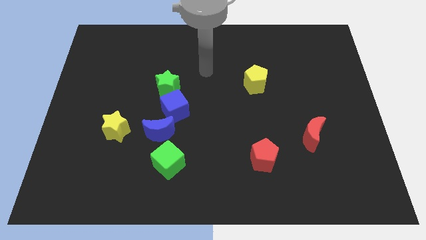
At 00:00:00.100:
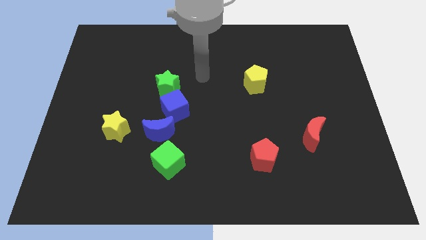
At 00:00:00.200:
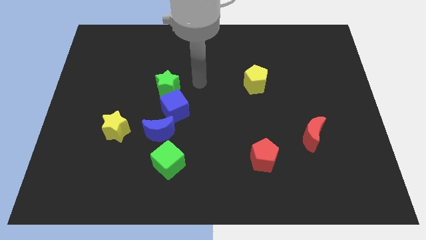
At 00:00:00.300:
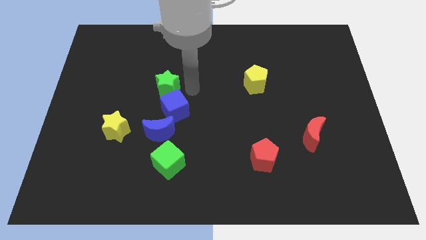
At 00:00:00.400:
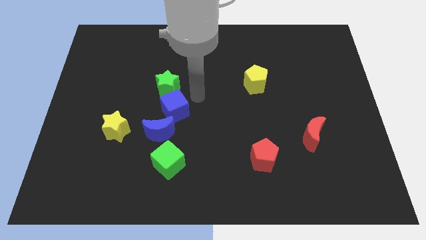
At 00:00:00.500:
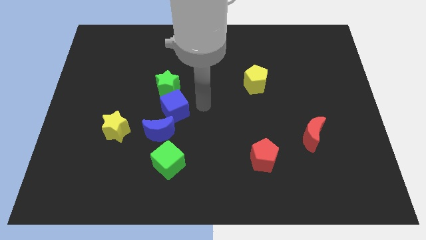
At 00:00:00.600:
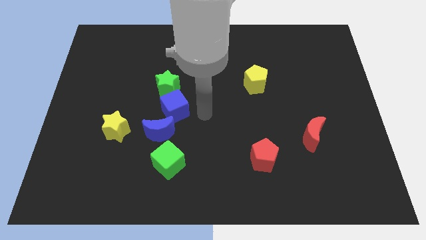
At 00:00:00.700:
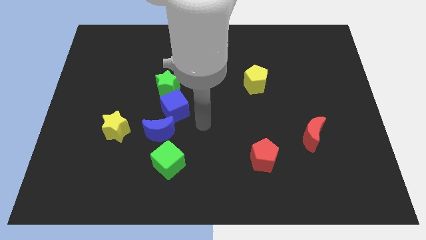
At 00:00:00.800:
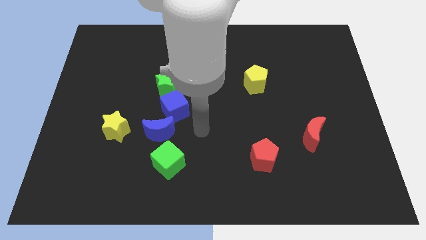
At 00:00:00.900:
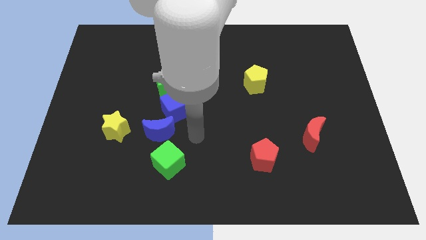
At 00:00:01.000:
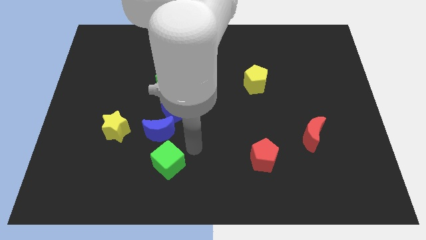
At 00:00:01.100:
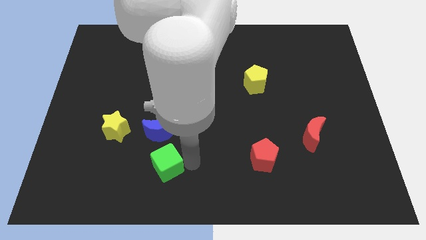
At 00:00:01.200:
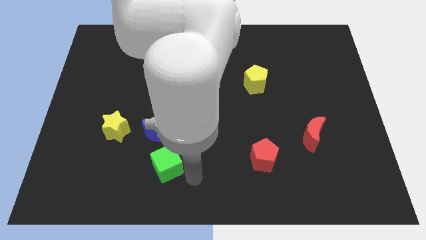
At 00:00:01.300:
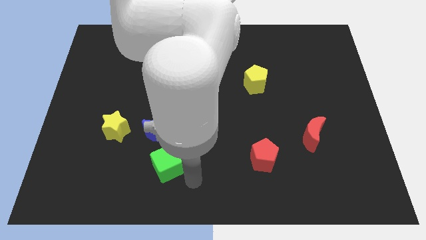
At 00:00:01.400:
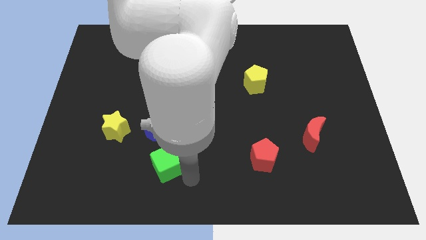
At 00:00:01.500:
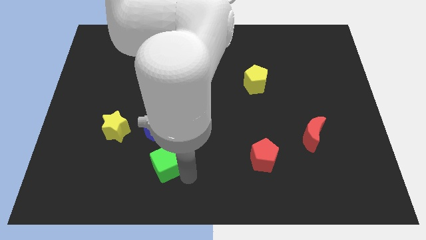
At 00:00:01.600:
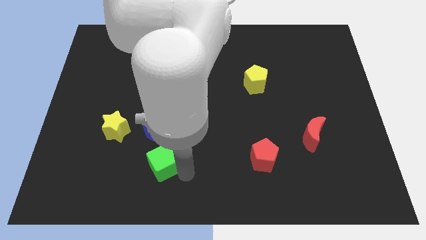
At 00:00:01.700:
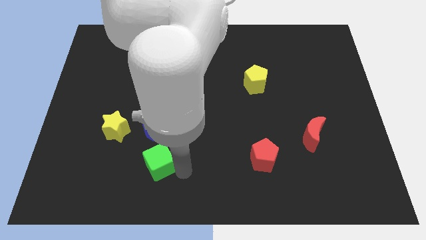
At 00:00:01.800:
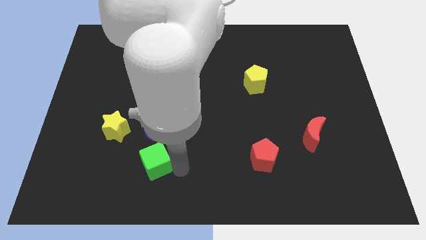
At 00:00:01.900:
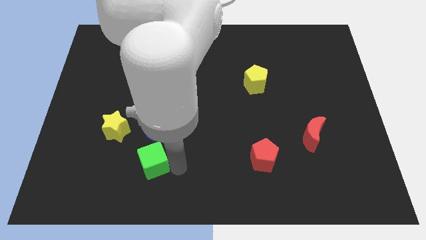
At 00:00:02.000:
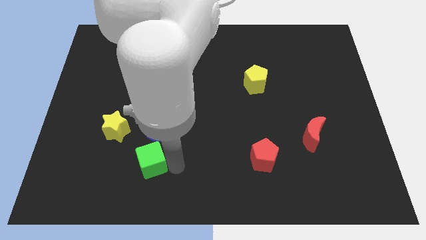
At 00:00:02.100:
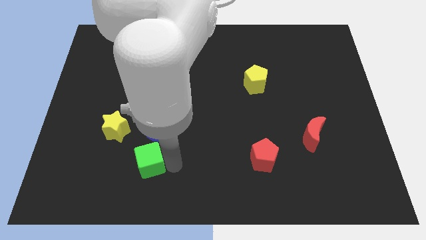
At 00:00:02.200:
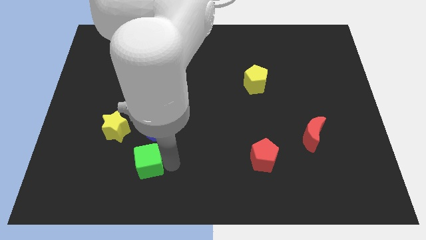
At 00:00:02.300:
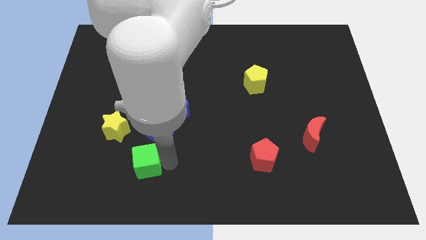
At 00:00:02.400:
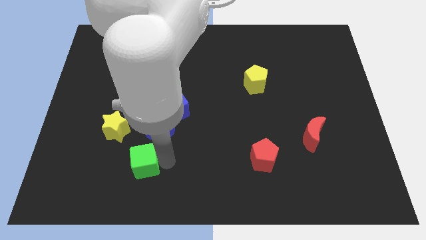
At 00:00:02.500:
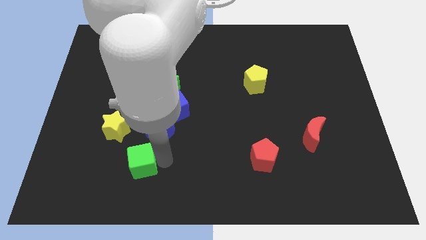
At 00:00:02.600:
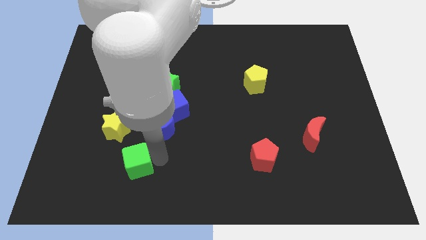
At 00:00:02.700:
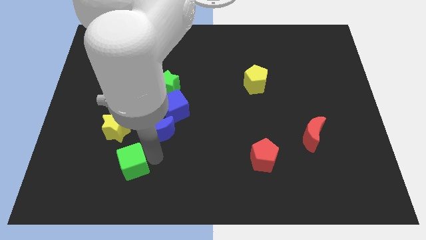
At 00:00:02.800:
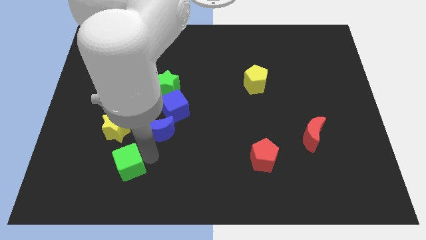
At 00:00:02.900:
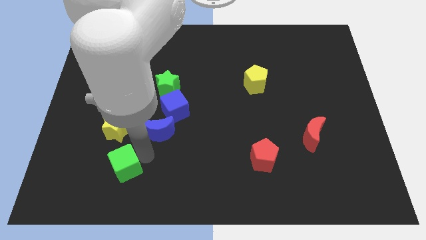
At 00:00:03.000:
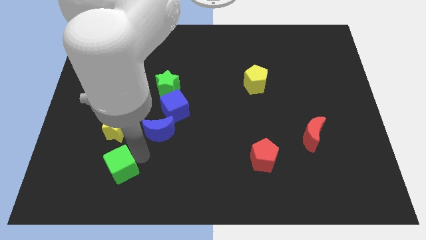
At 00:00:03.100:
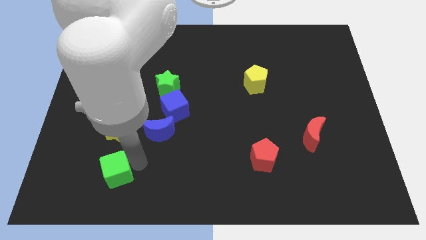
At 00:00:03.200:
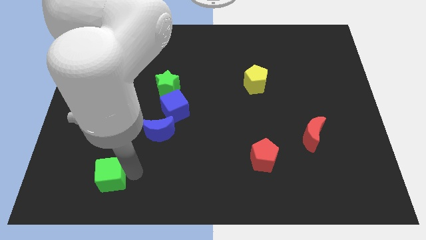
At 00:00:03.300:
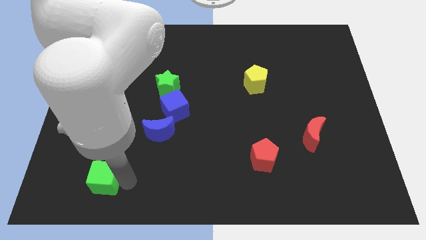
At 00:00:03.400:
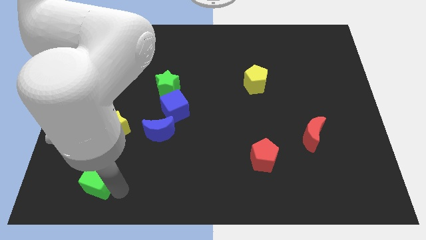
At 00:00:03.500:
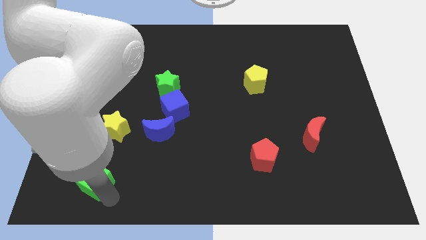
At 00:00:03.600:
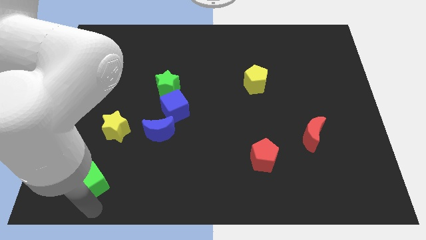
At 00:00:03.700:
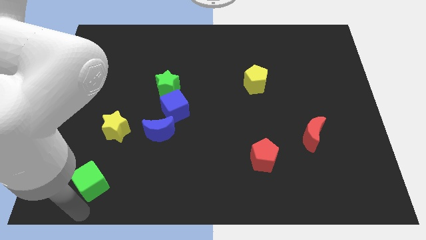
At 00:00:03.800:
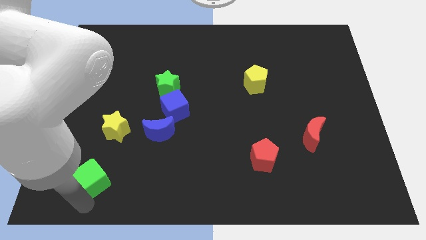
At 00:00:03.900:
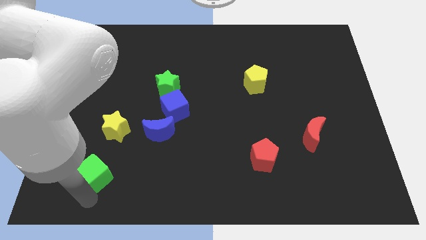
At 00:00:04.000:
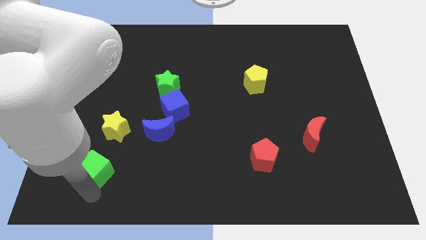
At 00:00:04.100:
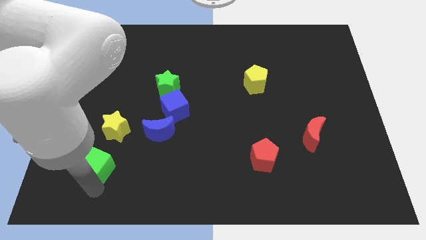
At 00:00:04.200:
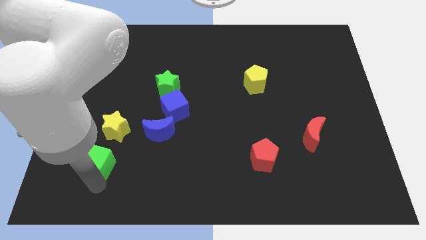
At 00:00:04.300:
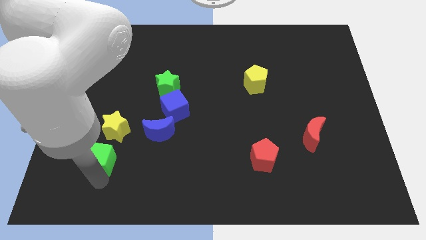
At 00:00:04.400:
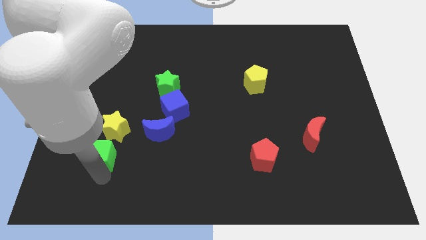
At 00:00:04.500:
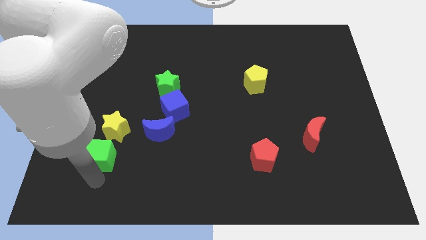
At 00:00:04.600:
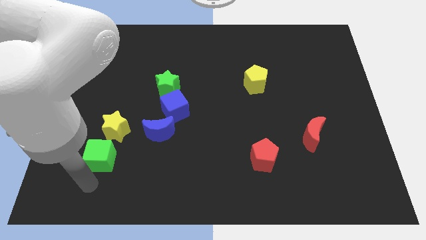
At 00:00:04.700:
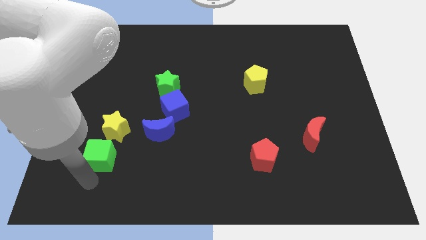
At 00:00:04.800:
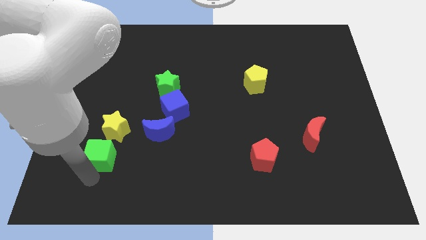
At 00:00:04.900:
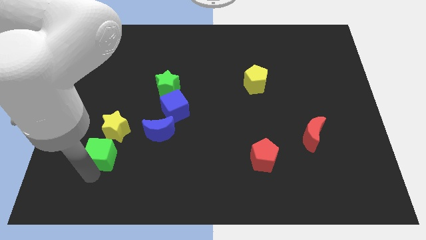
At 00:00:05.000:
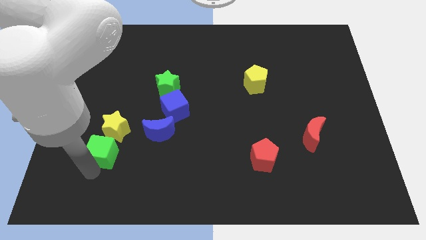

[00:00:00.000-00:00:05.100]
move the green cube towards the yellow star

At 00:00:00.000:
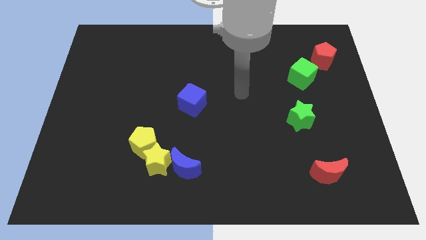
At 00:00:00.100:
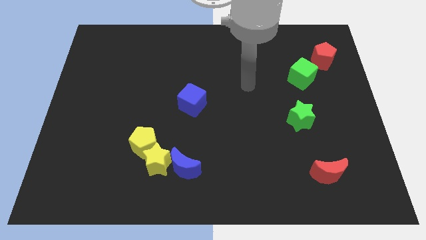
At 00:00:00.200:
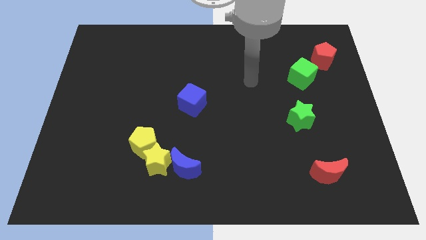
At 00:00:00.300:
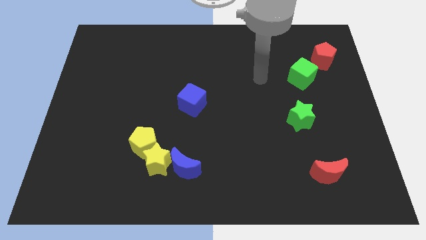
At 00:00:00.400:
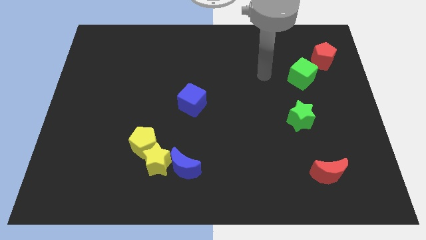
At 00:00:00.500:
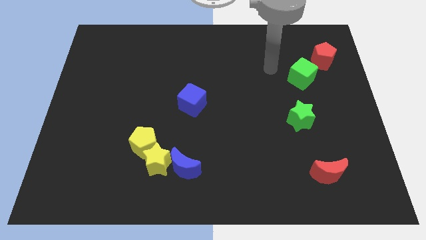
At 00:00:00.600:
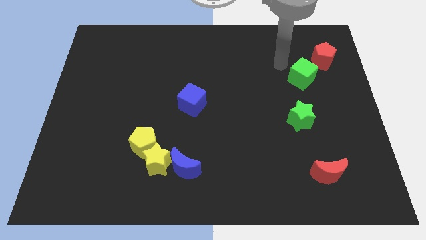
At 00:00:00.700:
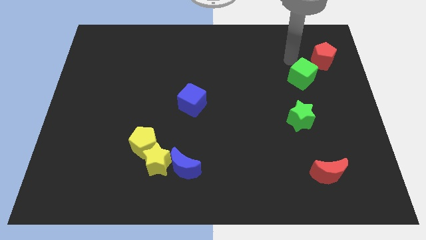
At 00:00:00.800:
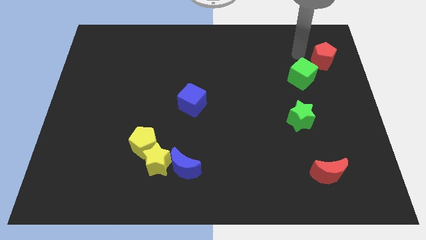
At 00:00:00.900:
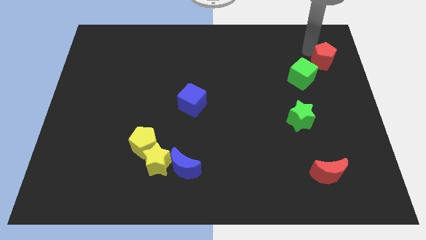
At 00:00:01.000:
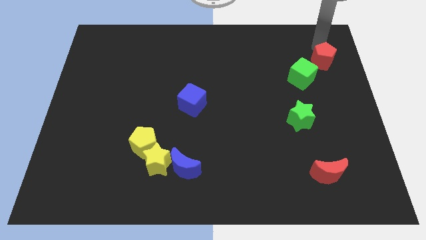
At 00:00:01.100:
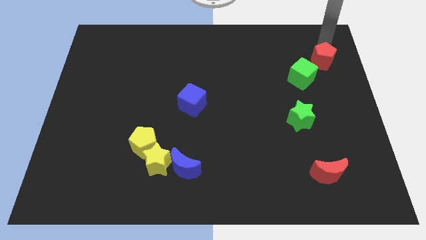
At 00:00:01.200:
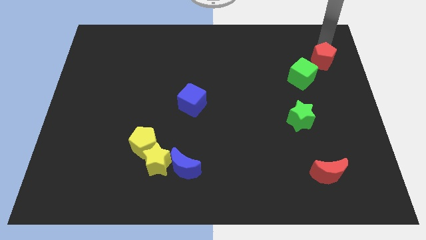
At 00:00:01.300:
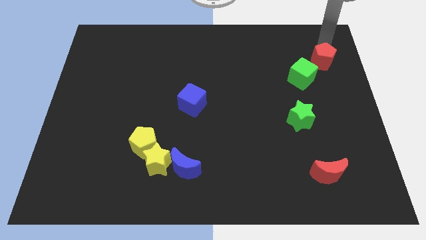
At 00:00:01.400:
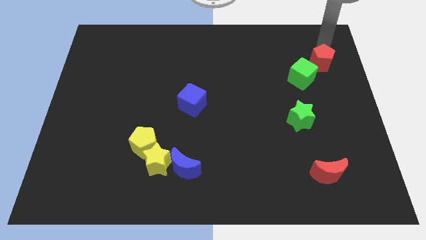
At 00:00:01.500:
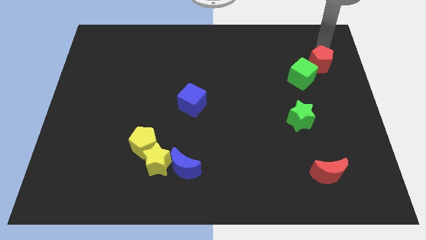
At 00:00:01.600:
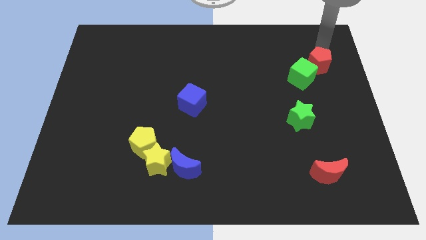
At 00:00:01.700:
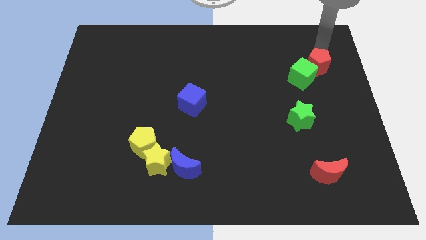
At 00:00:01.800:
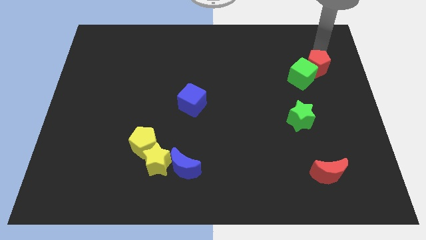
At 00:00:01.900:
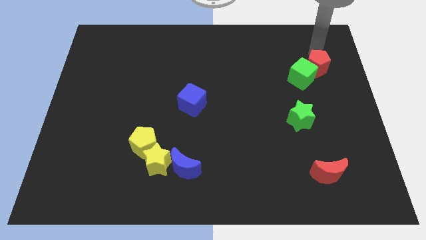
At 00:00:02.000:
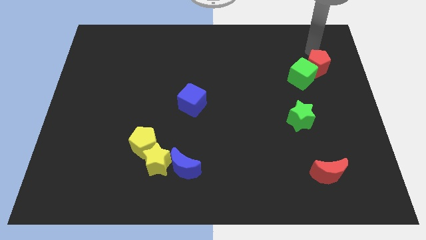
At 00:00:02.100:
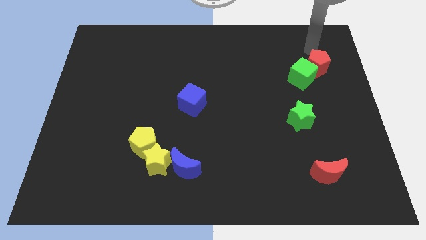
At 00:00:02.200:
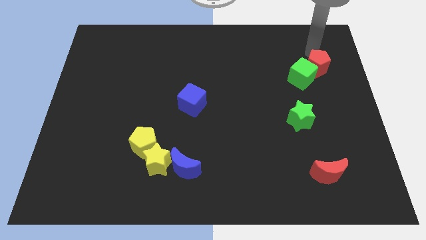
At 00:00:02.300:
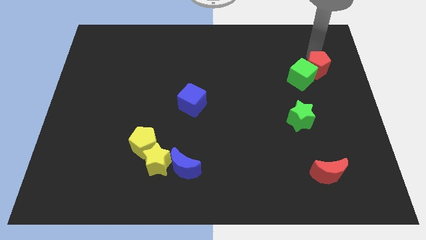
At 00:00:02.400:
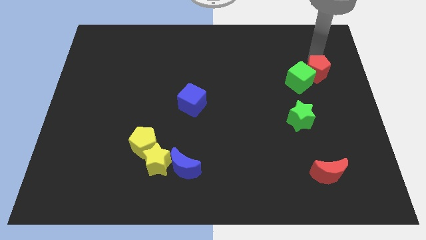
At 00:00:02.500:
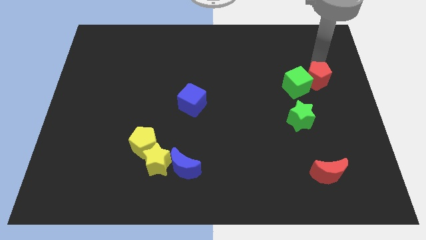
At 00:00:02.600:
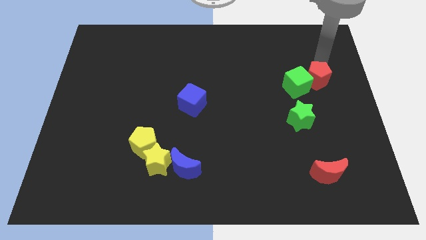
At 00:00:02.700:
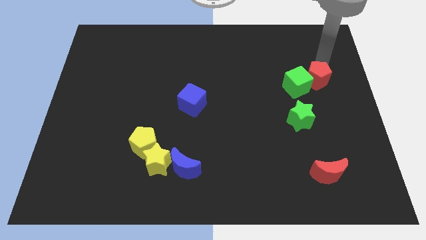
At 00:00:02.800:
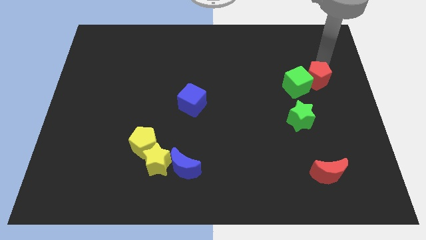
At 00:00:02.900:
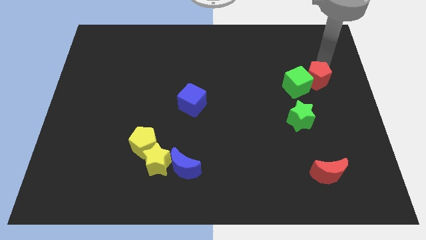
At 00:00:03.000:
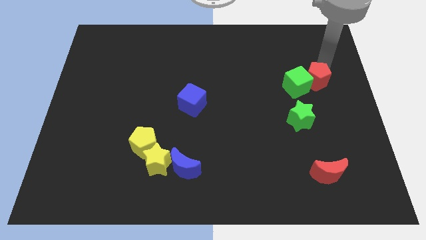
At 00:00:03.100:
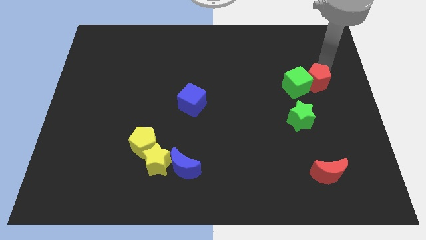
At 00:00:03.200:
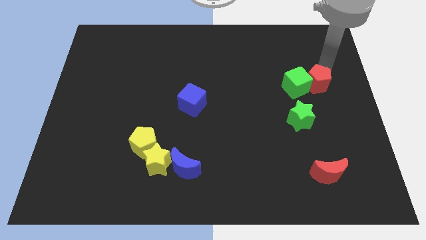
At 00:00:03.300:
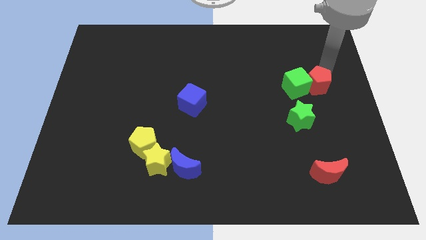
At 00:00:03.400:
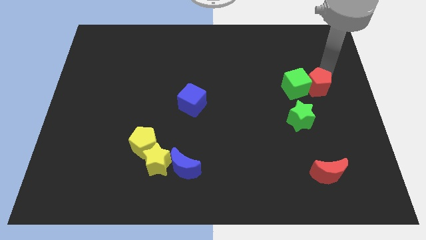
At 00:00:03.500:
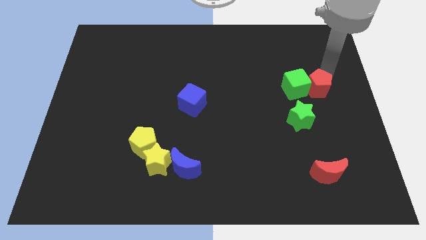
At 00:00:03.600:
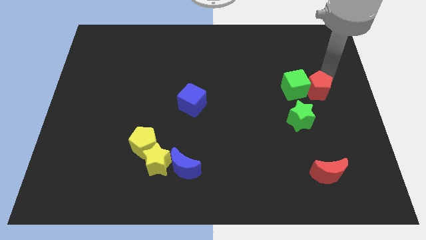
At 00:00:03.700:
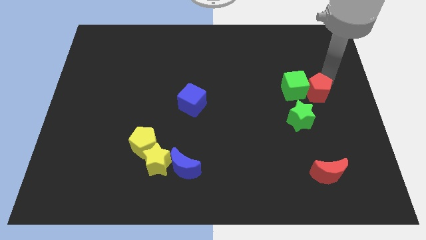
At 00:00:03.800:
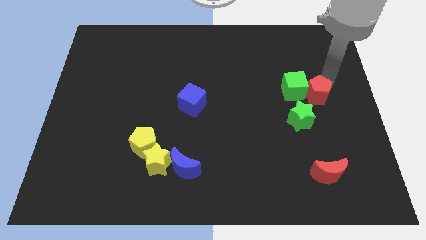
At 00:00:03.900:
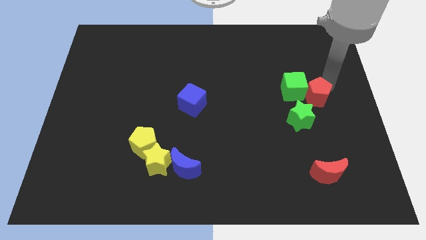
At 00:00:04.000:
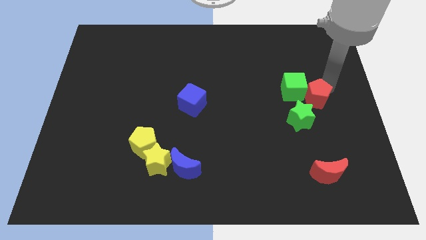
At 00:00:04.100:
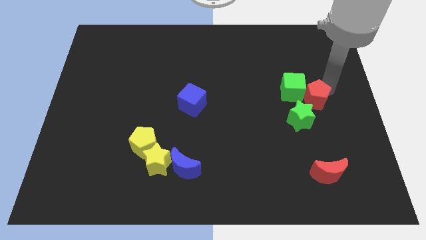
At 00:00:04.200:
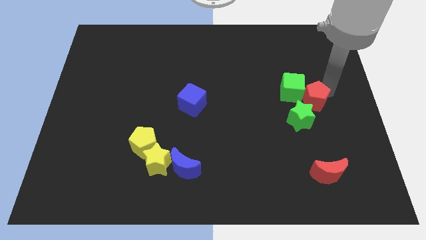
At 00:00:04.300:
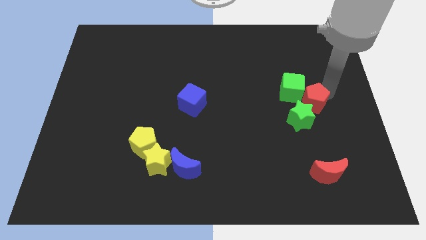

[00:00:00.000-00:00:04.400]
push the red pentagon towards the green star
